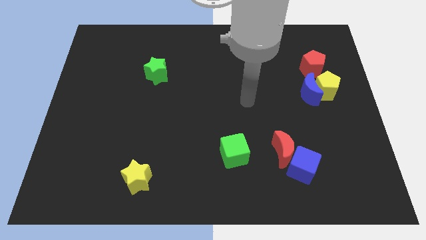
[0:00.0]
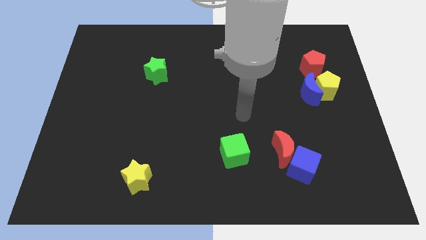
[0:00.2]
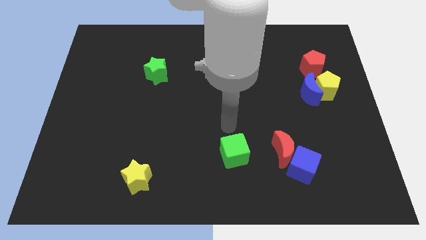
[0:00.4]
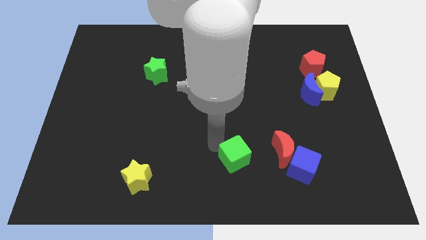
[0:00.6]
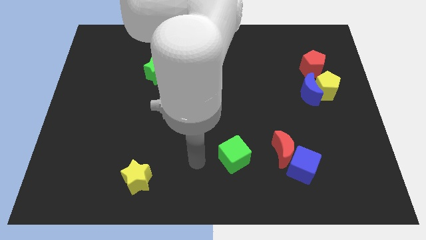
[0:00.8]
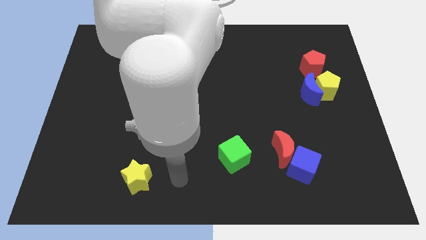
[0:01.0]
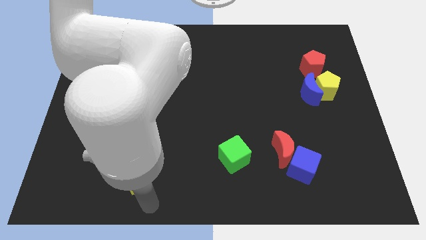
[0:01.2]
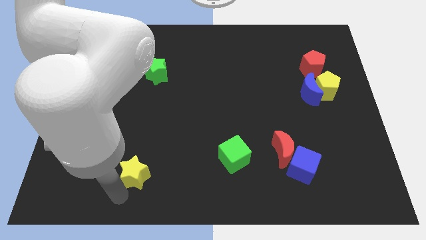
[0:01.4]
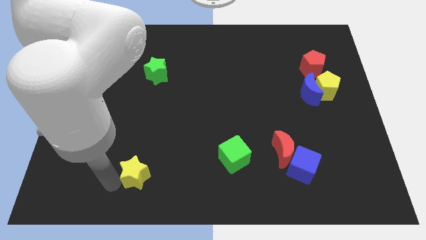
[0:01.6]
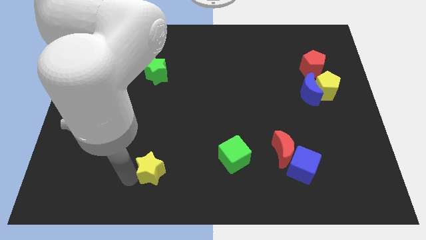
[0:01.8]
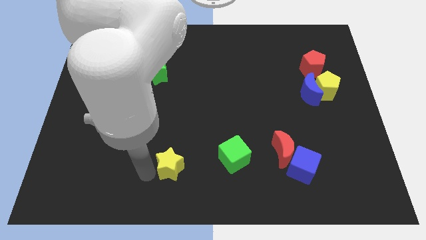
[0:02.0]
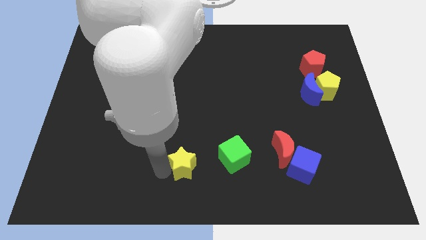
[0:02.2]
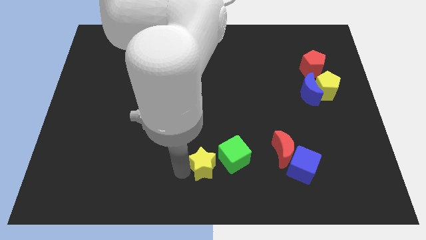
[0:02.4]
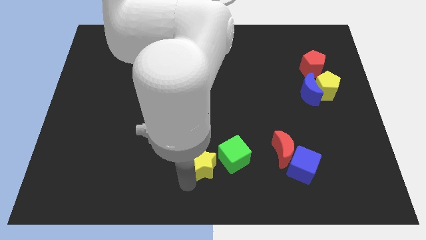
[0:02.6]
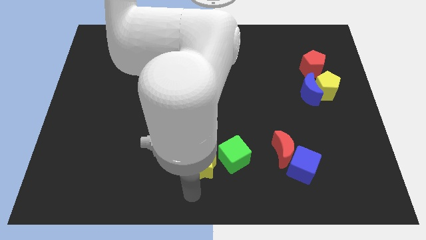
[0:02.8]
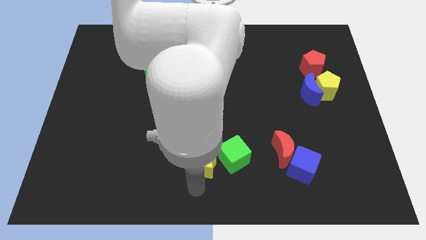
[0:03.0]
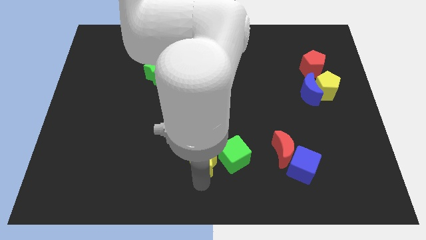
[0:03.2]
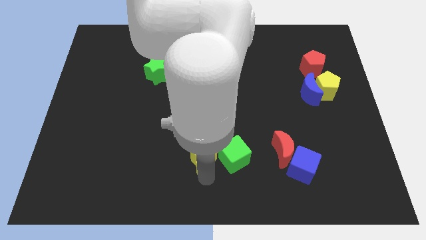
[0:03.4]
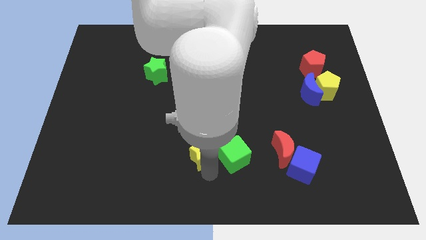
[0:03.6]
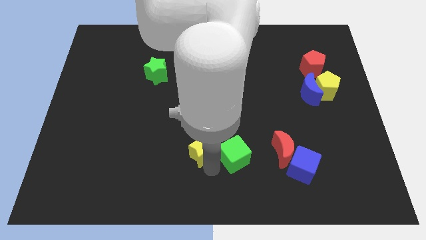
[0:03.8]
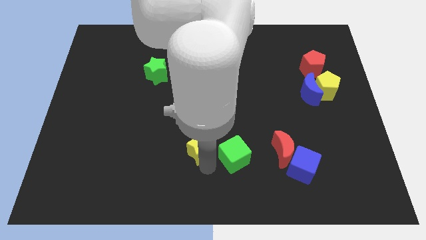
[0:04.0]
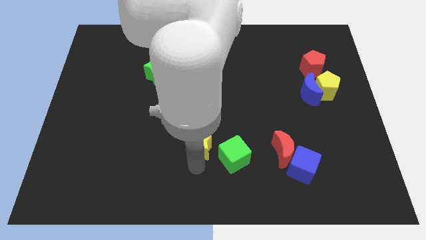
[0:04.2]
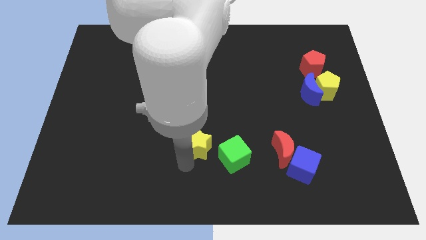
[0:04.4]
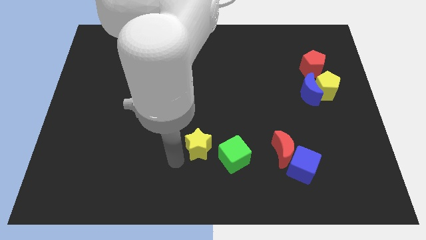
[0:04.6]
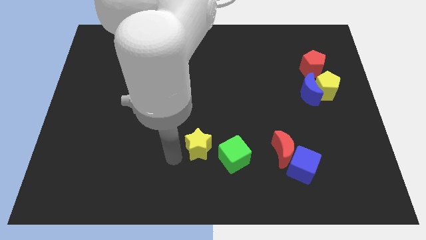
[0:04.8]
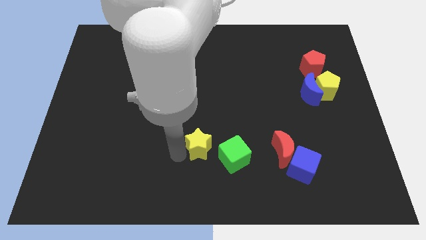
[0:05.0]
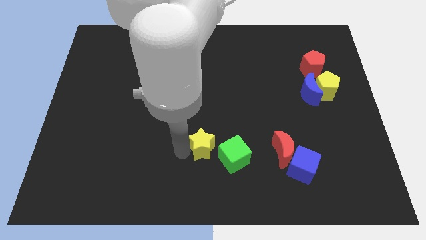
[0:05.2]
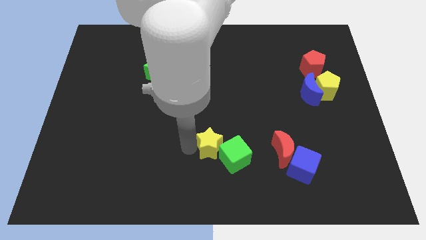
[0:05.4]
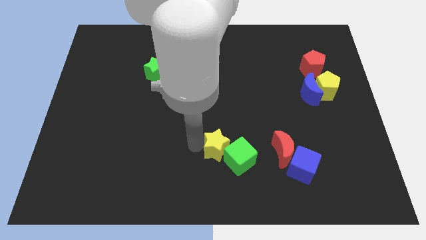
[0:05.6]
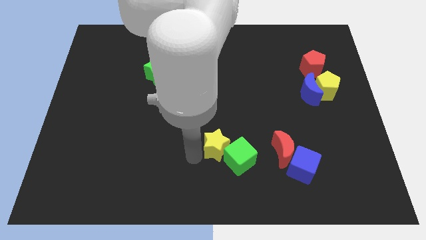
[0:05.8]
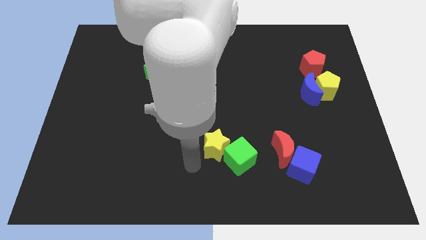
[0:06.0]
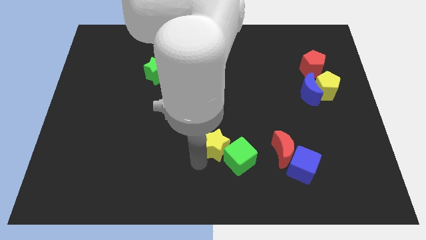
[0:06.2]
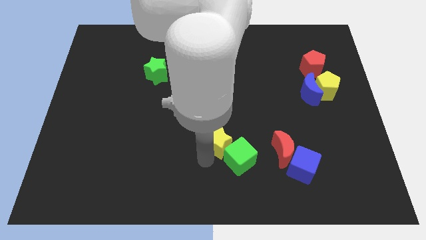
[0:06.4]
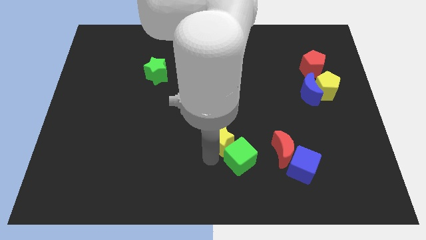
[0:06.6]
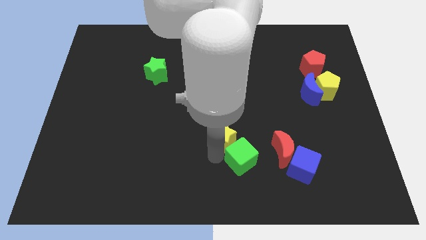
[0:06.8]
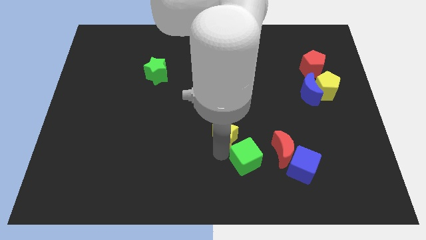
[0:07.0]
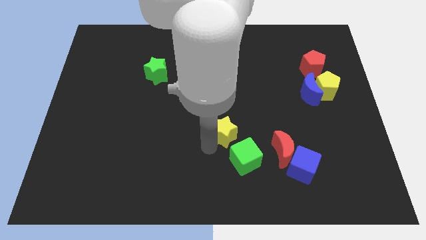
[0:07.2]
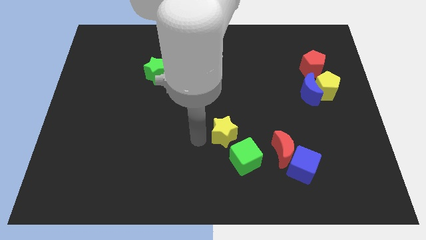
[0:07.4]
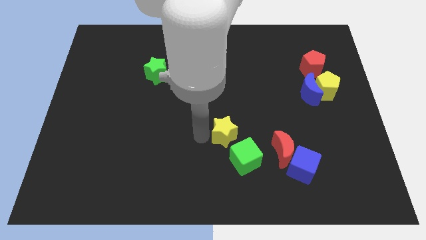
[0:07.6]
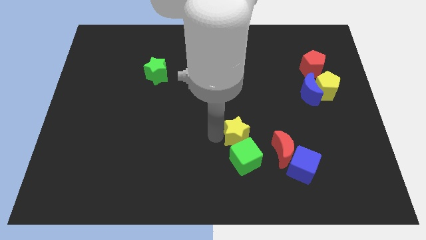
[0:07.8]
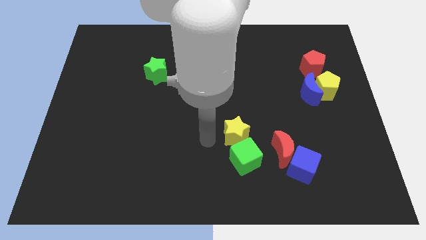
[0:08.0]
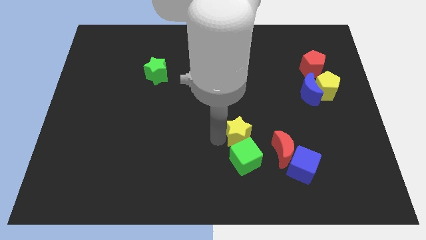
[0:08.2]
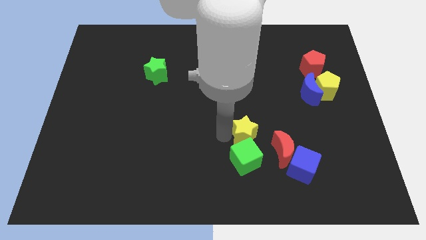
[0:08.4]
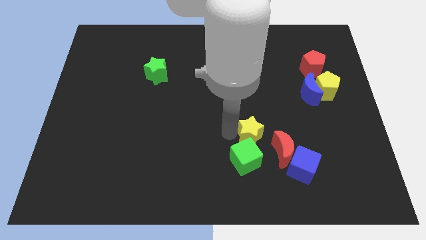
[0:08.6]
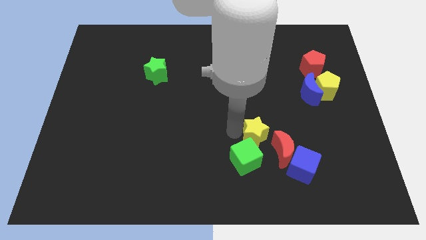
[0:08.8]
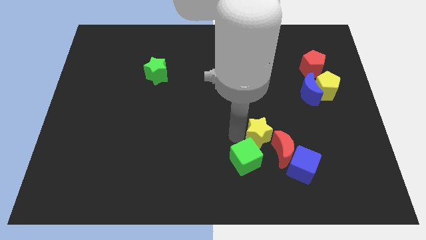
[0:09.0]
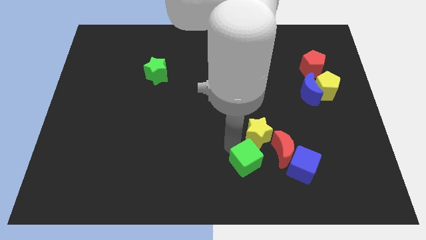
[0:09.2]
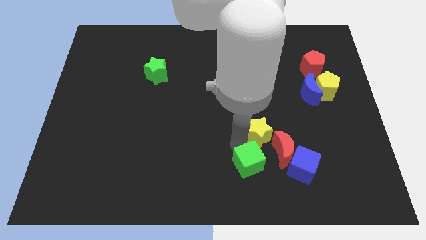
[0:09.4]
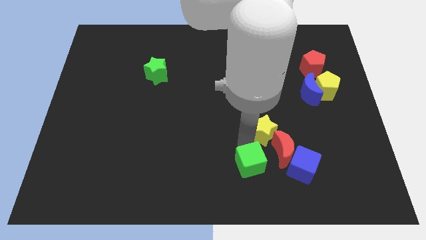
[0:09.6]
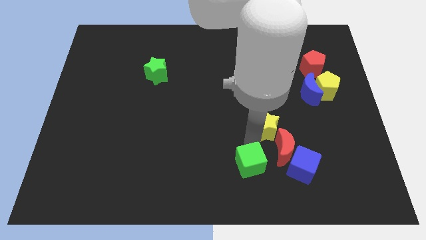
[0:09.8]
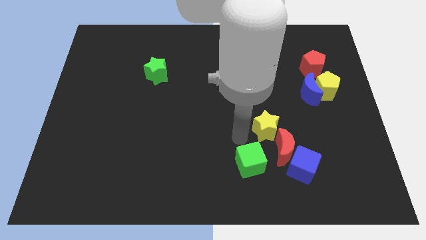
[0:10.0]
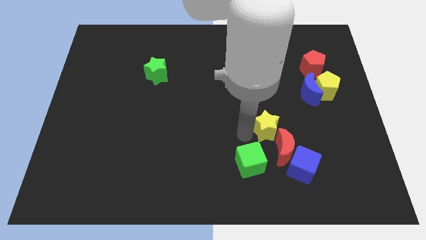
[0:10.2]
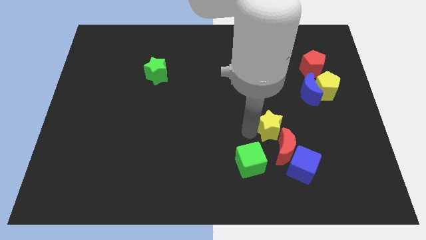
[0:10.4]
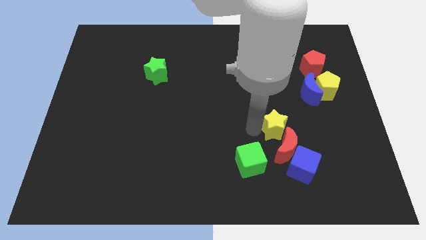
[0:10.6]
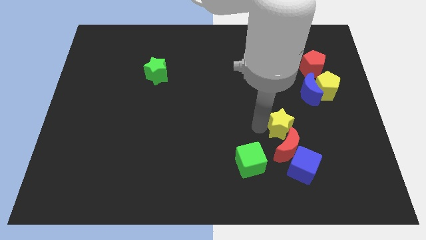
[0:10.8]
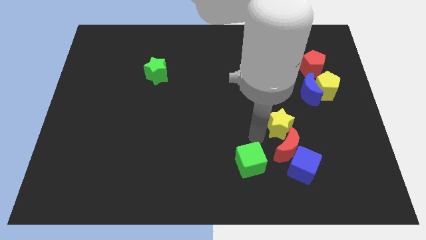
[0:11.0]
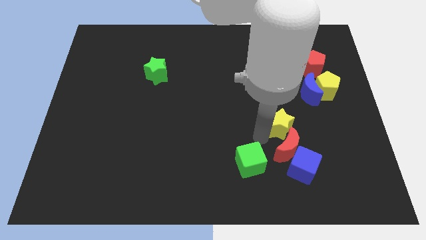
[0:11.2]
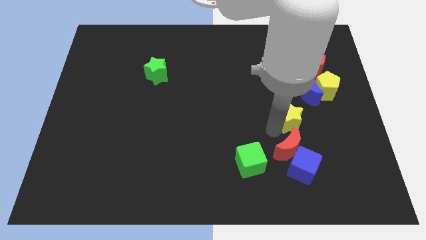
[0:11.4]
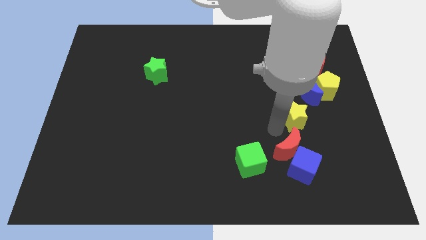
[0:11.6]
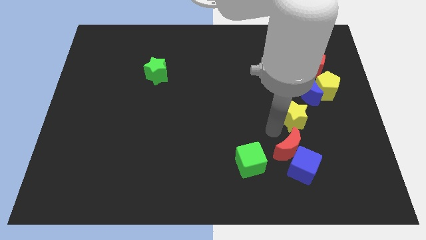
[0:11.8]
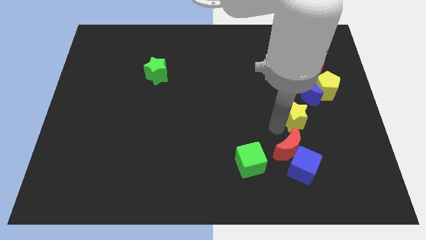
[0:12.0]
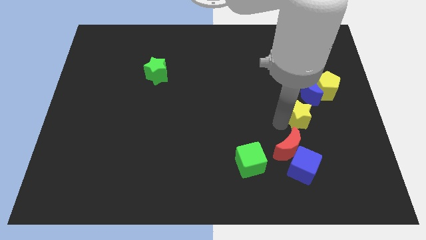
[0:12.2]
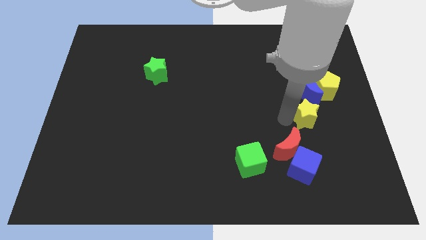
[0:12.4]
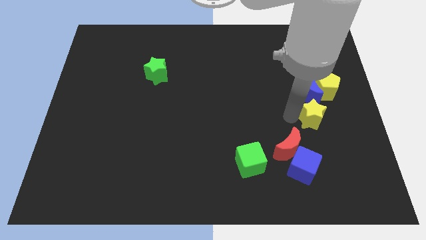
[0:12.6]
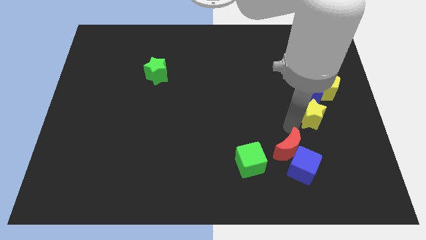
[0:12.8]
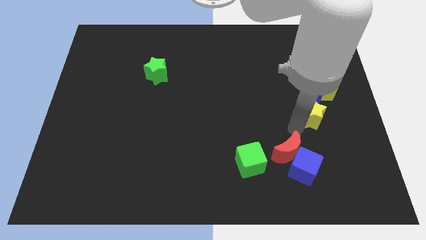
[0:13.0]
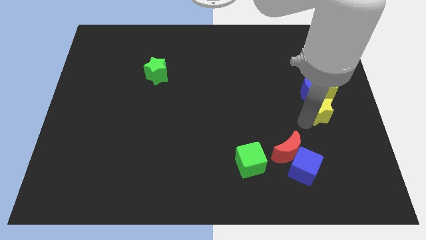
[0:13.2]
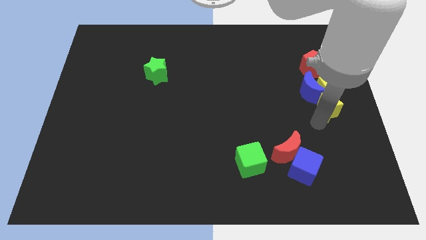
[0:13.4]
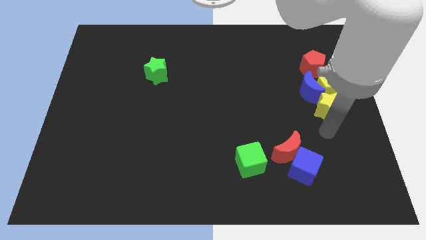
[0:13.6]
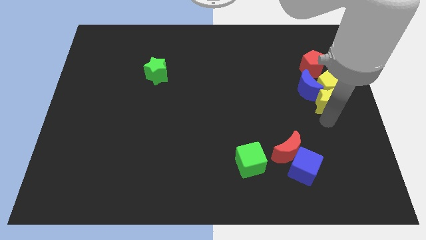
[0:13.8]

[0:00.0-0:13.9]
move the yellow star to the yellow pentagon
